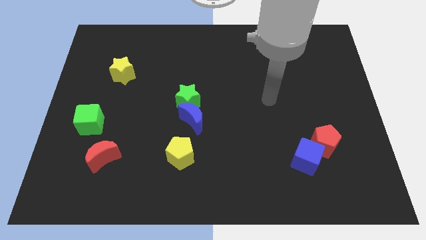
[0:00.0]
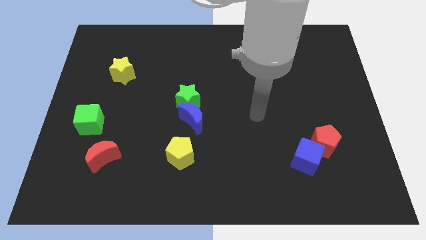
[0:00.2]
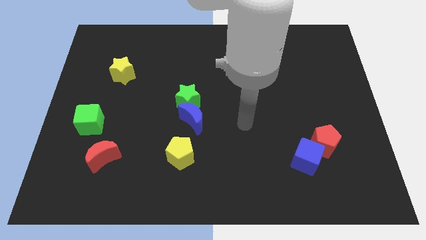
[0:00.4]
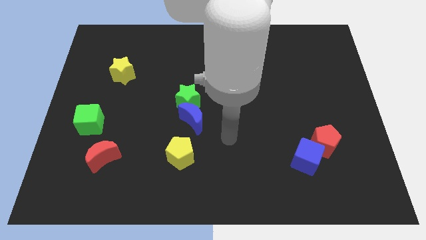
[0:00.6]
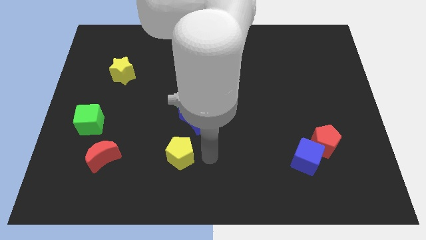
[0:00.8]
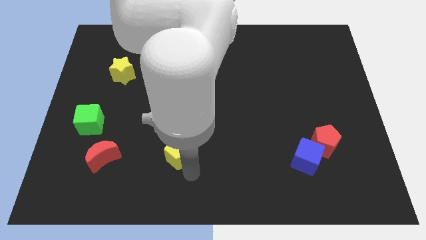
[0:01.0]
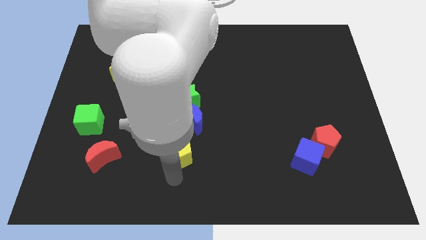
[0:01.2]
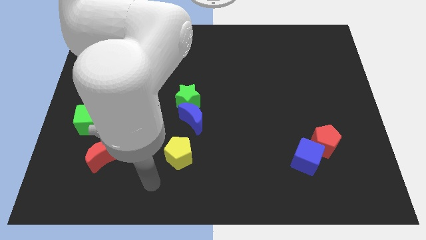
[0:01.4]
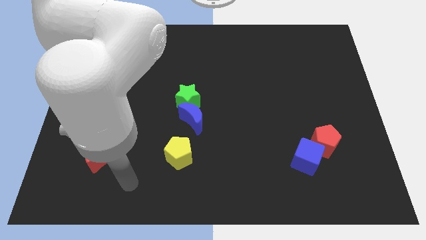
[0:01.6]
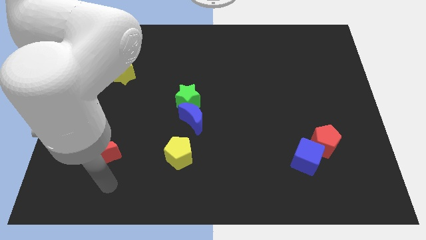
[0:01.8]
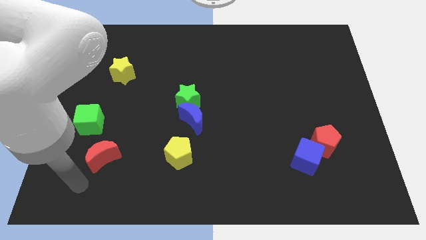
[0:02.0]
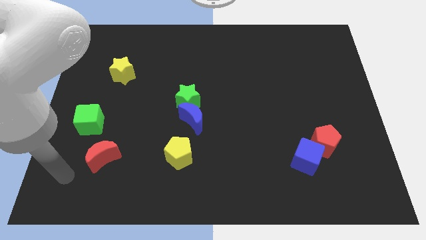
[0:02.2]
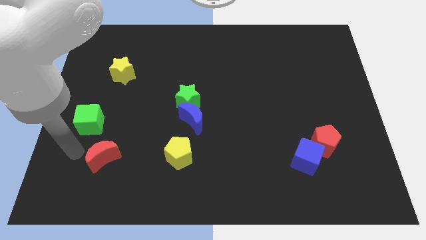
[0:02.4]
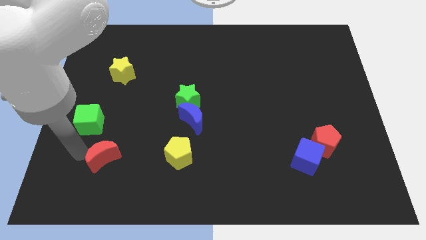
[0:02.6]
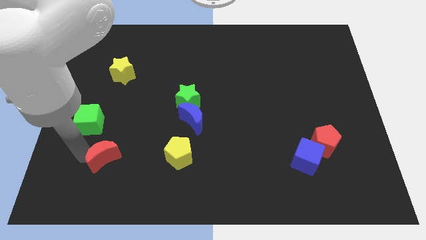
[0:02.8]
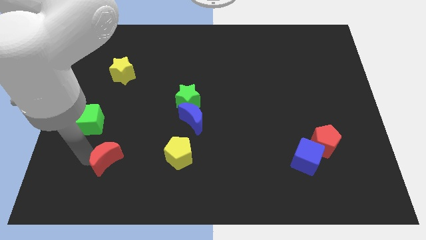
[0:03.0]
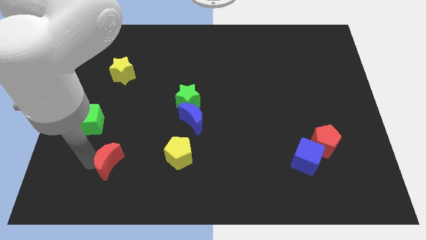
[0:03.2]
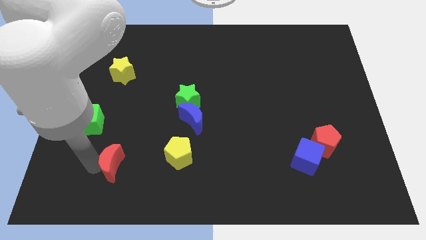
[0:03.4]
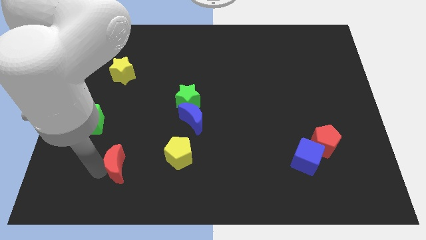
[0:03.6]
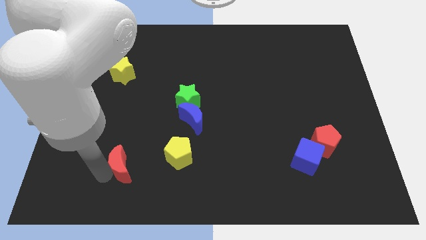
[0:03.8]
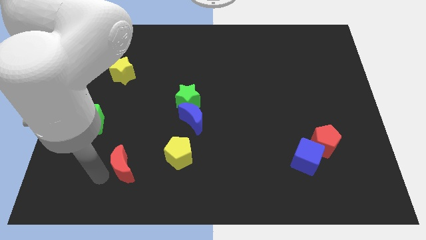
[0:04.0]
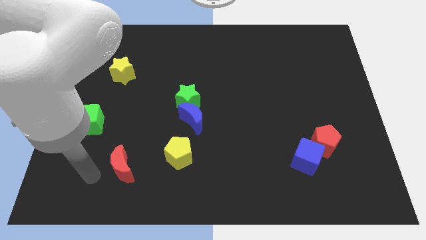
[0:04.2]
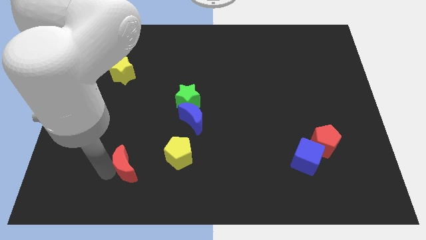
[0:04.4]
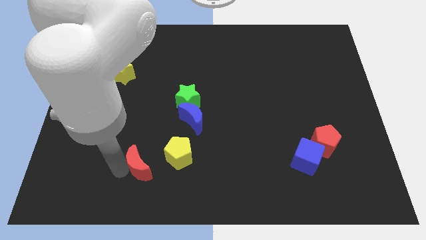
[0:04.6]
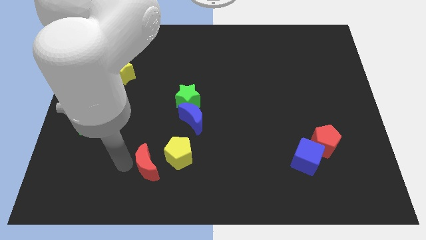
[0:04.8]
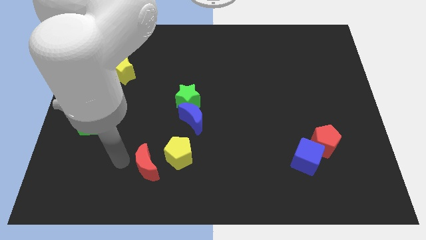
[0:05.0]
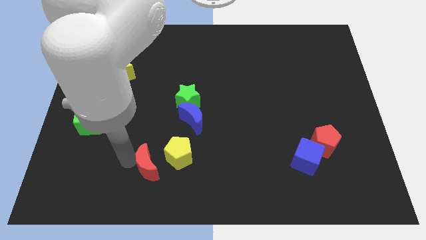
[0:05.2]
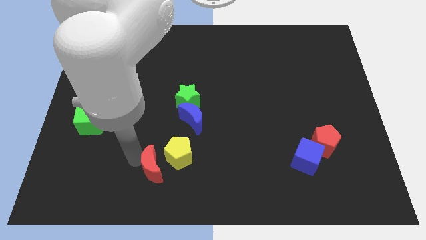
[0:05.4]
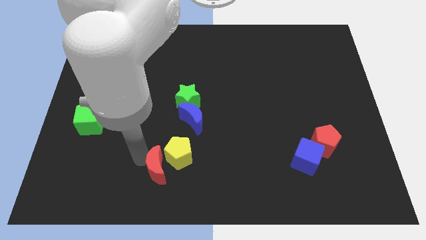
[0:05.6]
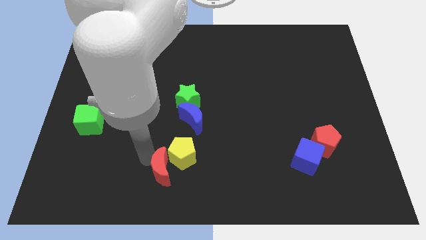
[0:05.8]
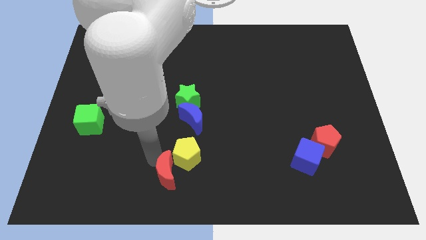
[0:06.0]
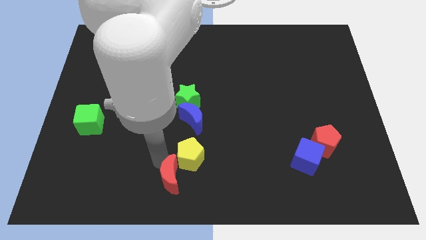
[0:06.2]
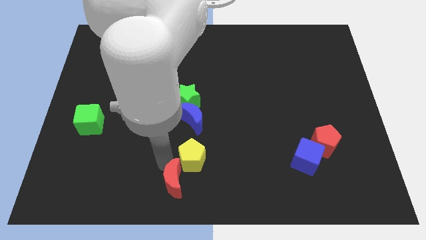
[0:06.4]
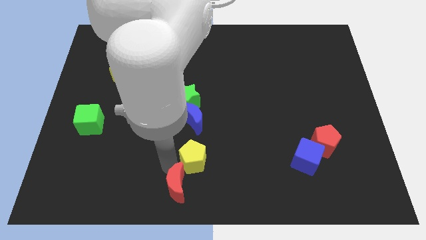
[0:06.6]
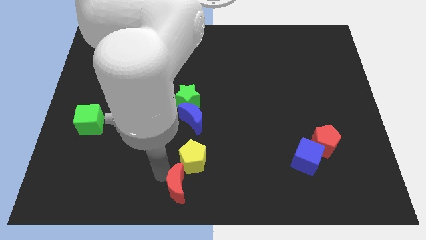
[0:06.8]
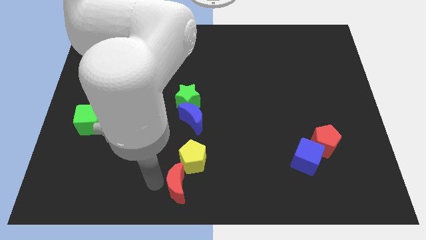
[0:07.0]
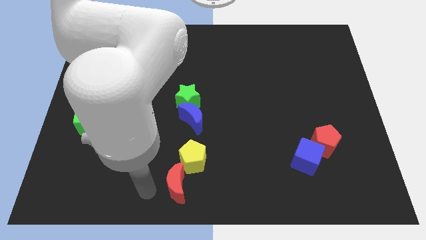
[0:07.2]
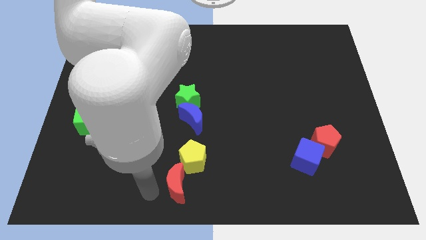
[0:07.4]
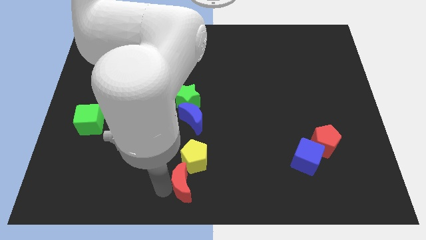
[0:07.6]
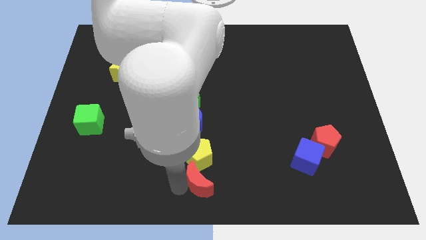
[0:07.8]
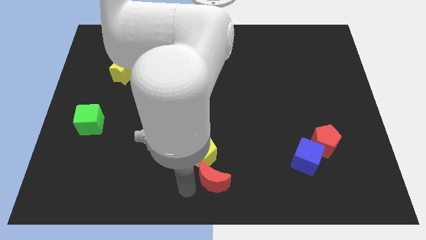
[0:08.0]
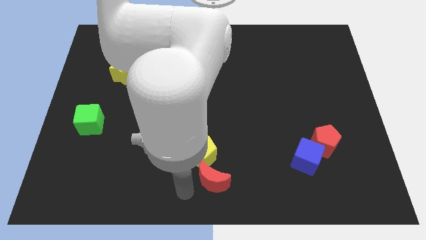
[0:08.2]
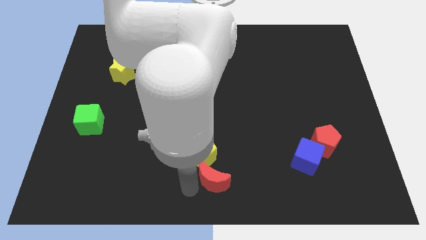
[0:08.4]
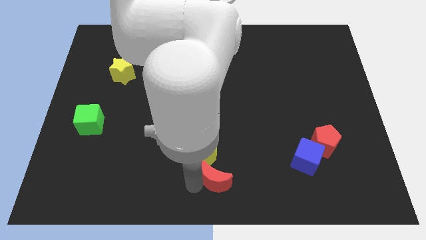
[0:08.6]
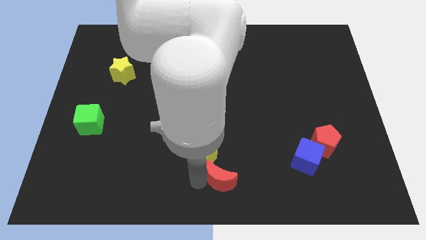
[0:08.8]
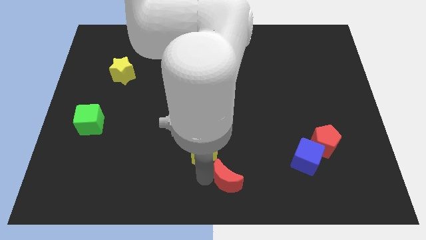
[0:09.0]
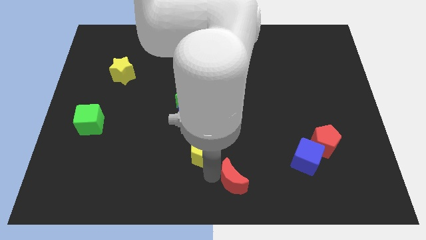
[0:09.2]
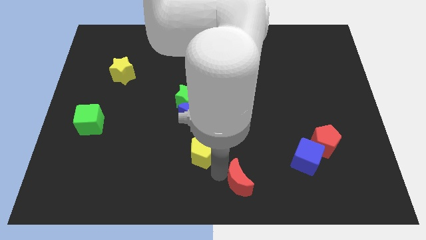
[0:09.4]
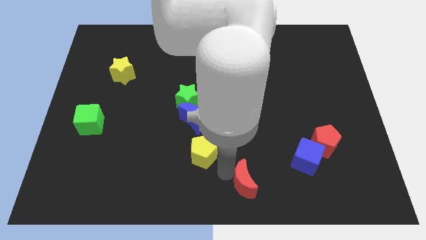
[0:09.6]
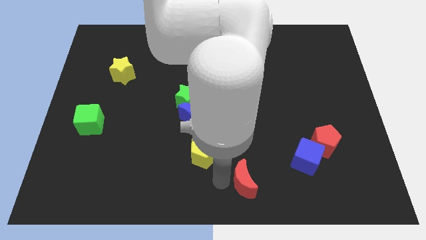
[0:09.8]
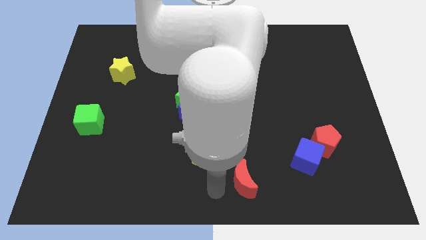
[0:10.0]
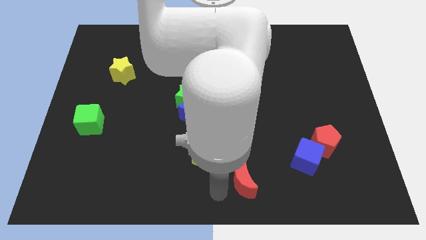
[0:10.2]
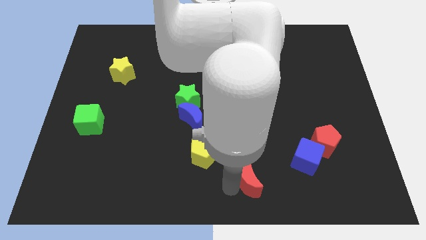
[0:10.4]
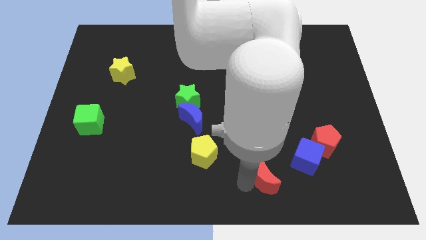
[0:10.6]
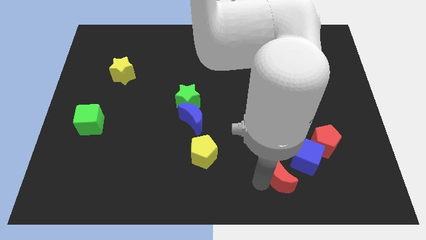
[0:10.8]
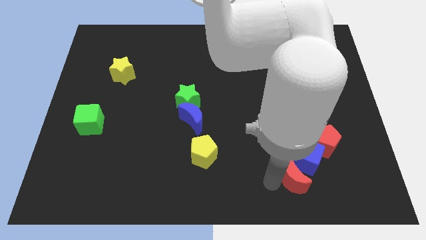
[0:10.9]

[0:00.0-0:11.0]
move the red moon to the blue cube

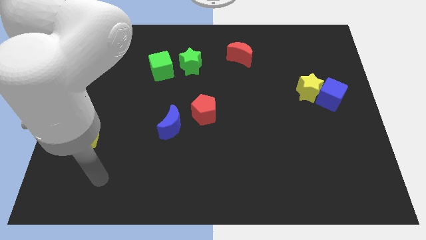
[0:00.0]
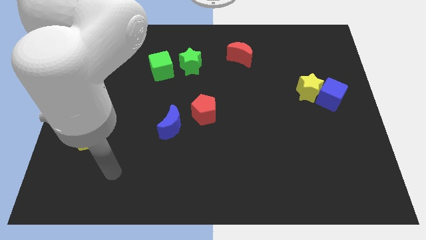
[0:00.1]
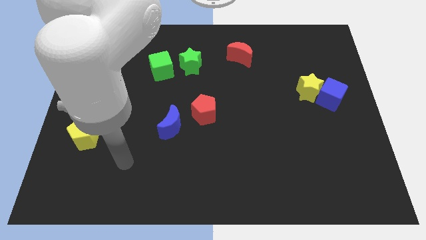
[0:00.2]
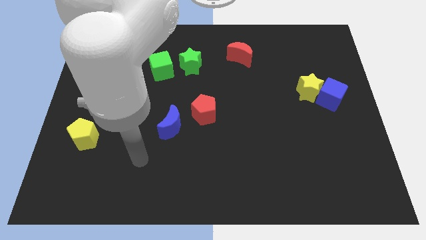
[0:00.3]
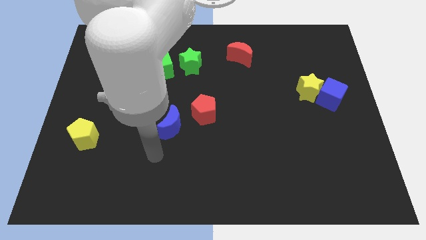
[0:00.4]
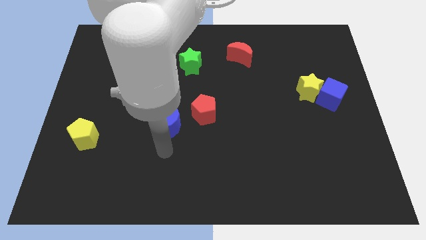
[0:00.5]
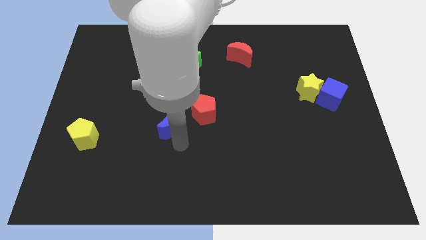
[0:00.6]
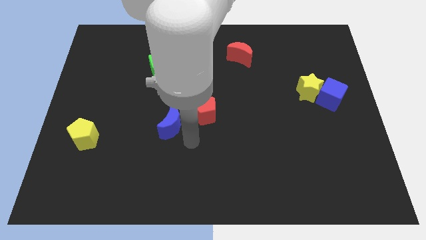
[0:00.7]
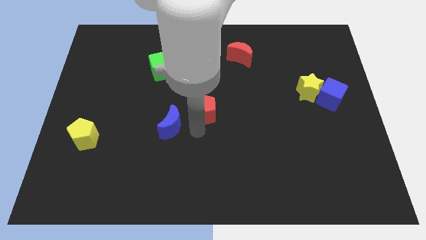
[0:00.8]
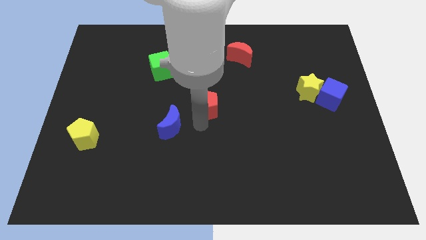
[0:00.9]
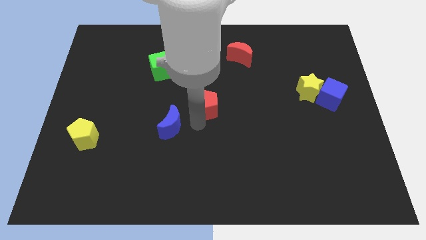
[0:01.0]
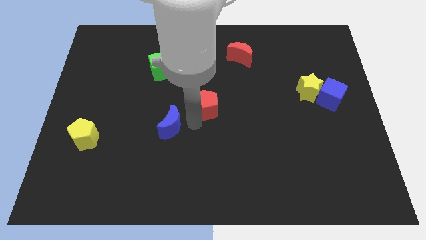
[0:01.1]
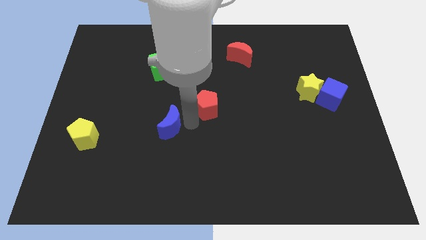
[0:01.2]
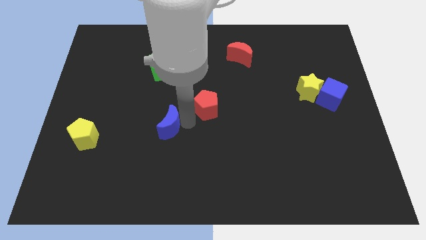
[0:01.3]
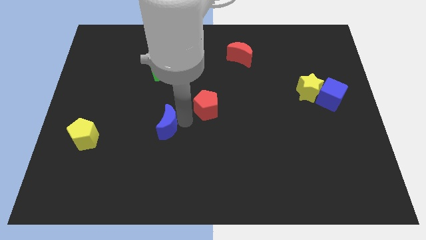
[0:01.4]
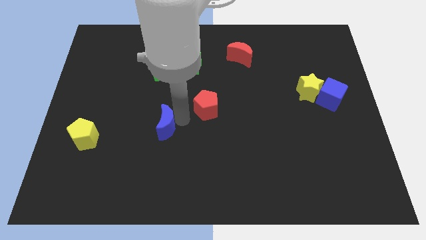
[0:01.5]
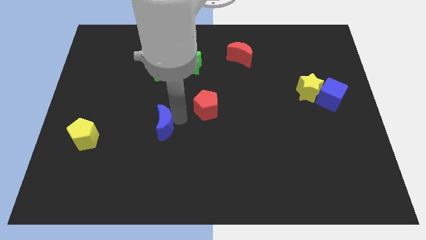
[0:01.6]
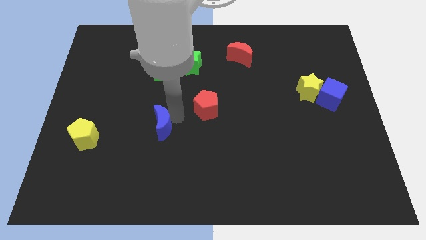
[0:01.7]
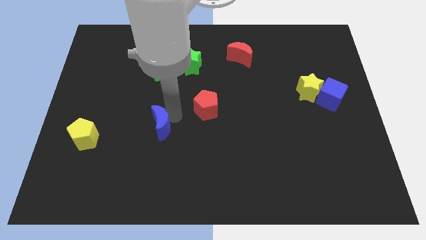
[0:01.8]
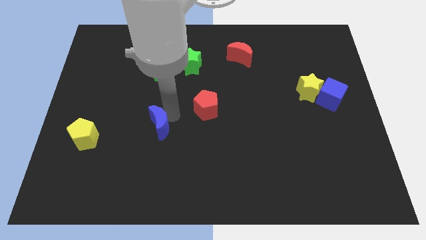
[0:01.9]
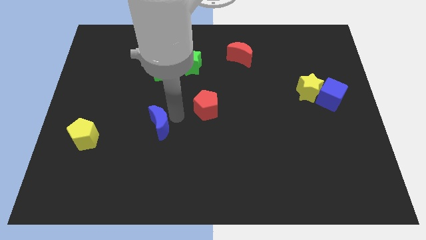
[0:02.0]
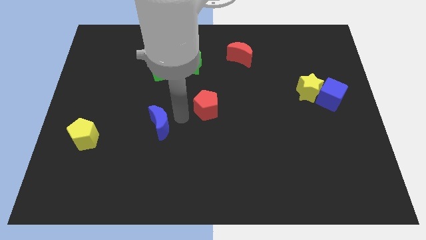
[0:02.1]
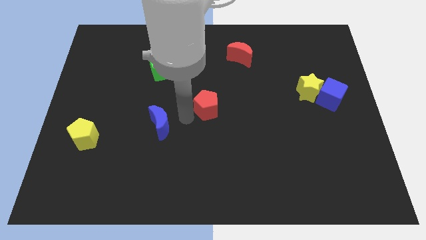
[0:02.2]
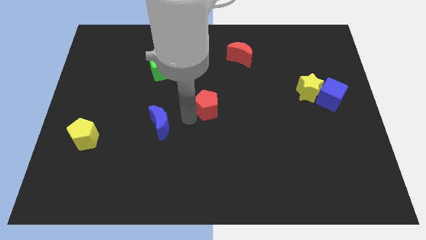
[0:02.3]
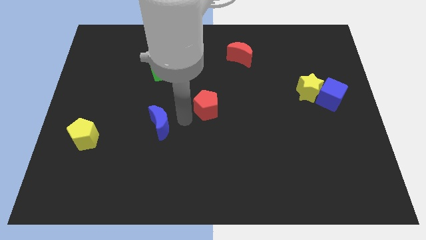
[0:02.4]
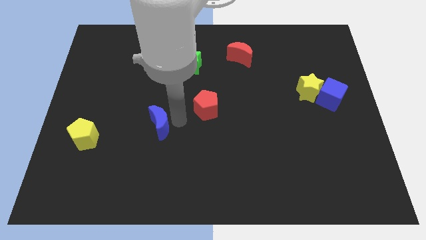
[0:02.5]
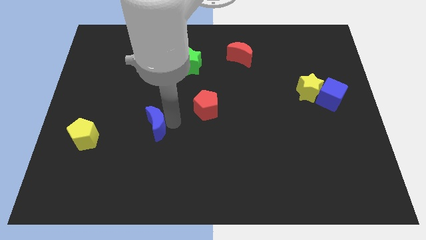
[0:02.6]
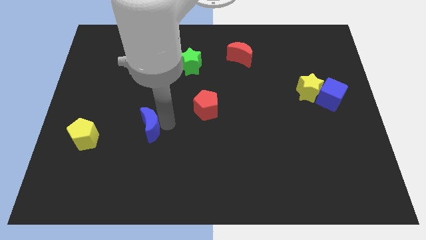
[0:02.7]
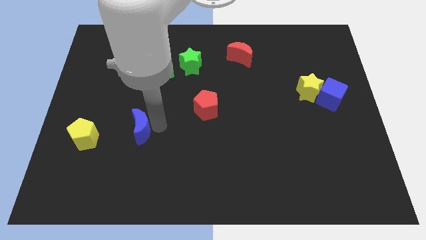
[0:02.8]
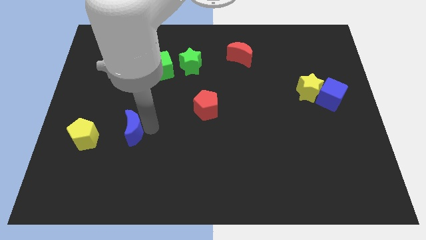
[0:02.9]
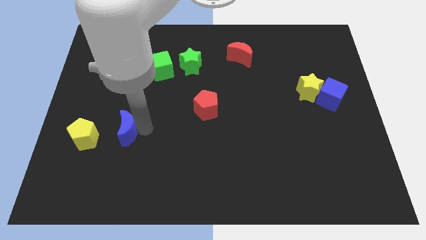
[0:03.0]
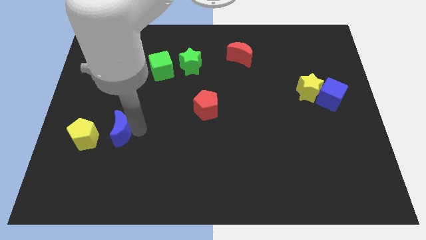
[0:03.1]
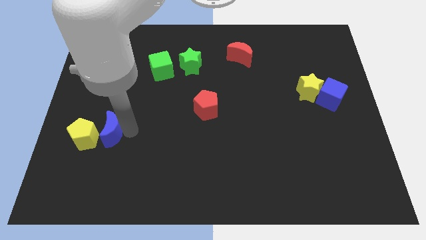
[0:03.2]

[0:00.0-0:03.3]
push the blue moon close to the yellow pentagon
